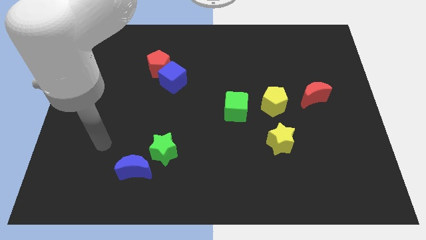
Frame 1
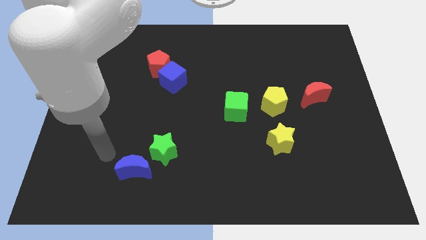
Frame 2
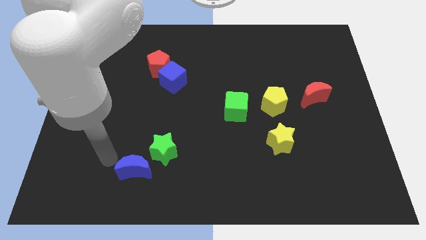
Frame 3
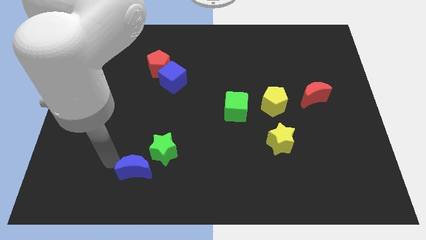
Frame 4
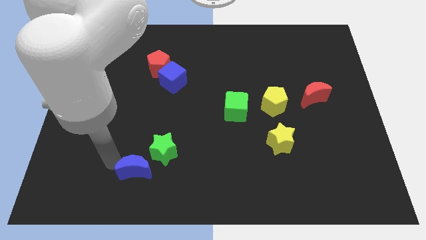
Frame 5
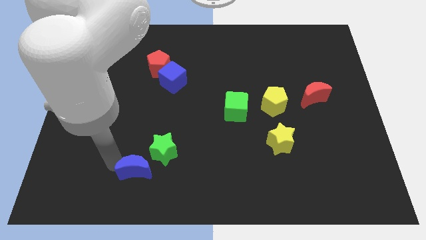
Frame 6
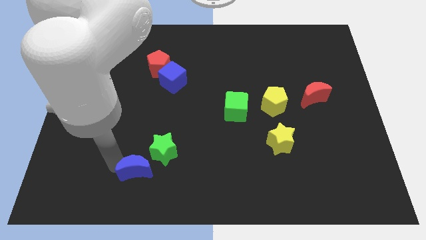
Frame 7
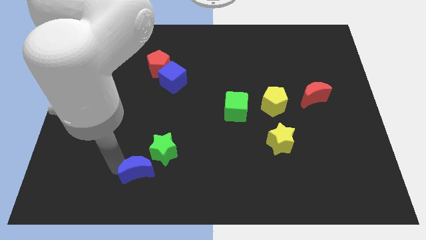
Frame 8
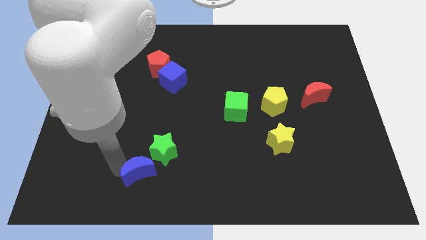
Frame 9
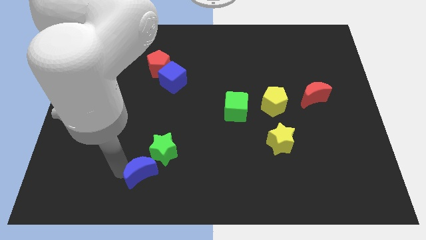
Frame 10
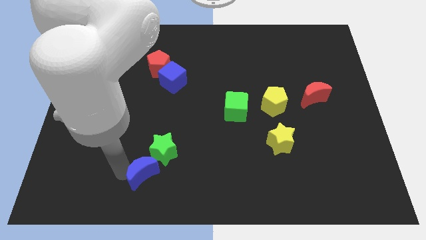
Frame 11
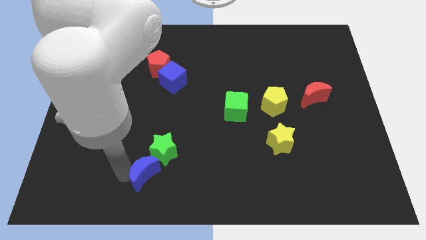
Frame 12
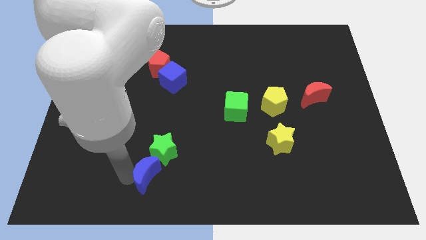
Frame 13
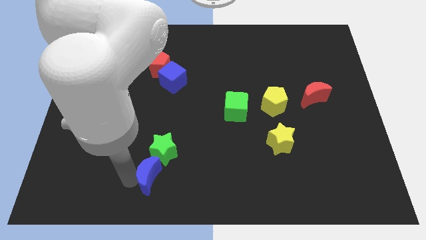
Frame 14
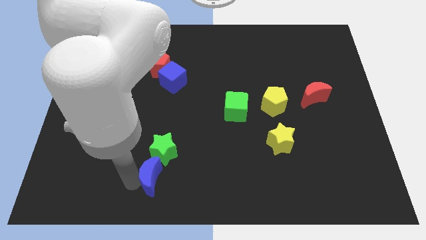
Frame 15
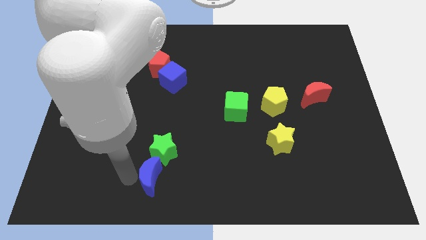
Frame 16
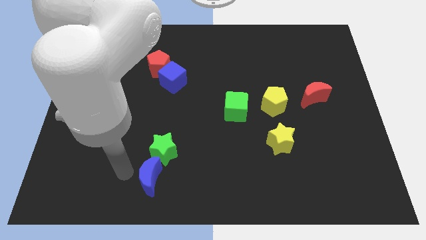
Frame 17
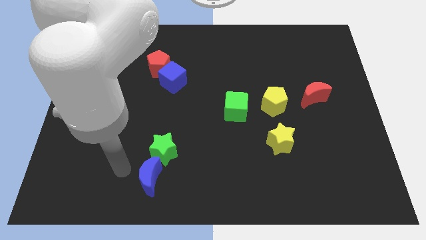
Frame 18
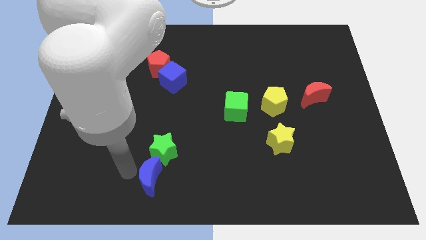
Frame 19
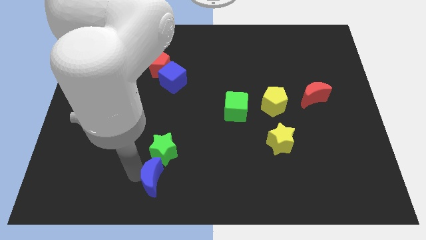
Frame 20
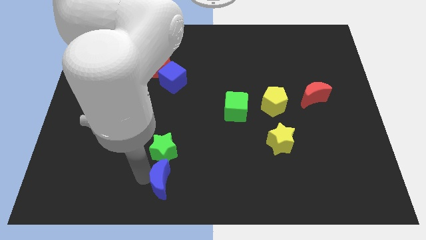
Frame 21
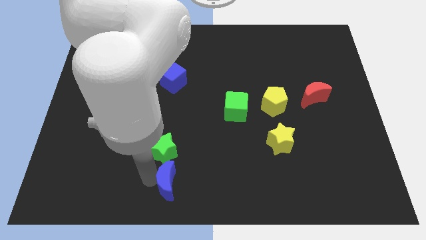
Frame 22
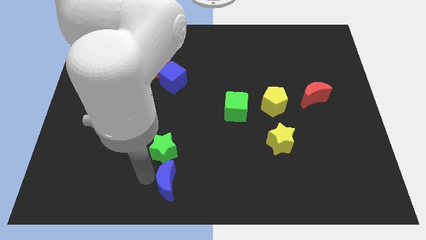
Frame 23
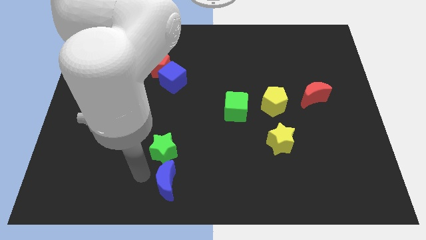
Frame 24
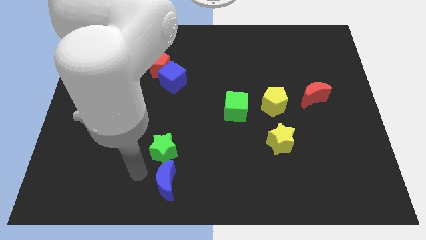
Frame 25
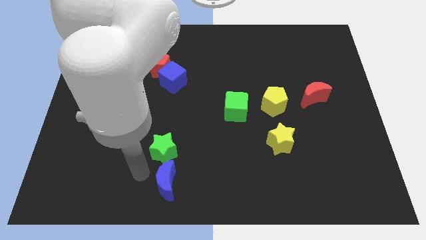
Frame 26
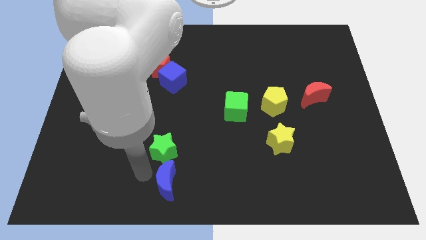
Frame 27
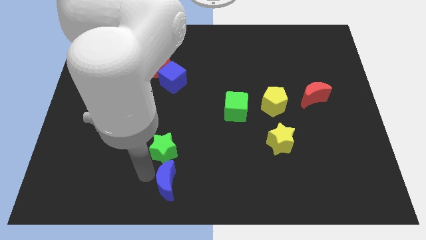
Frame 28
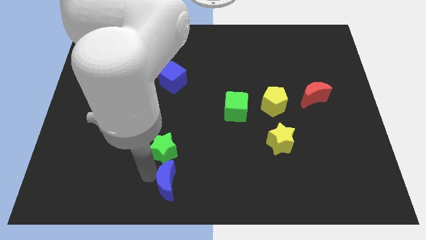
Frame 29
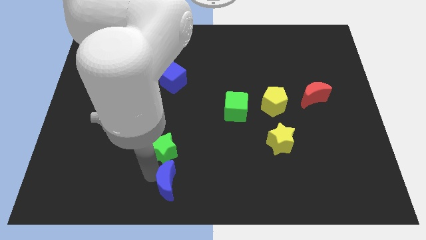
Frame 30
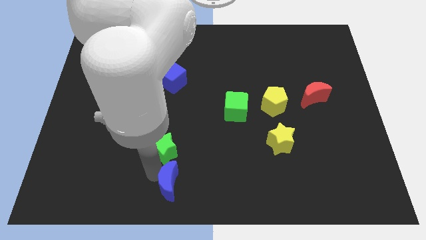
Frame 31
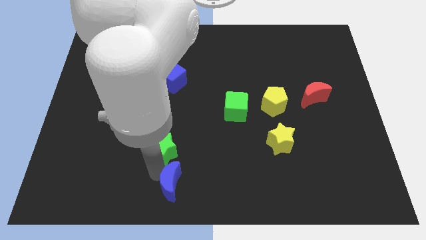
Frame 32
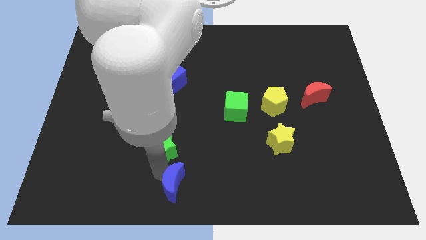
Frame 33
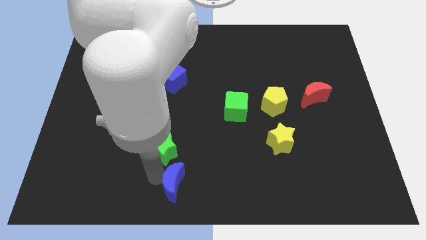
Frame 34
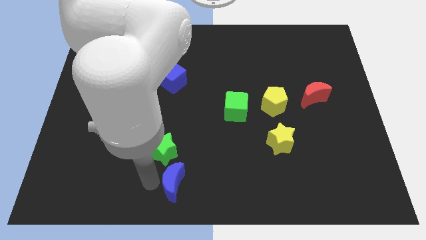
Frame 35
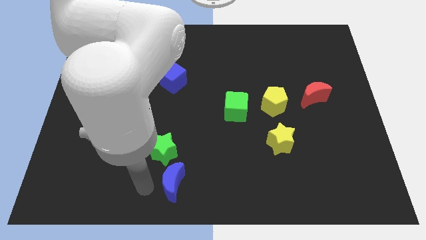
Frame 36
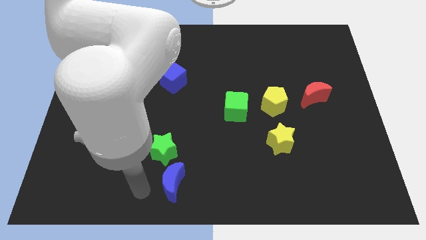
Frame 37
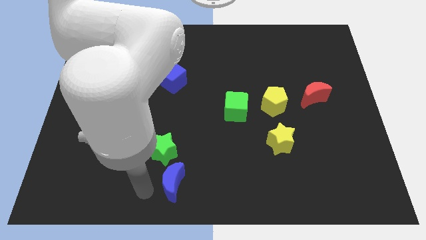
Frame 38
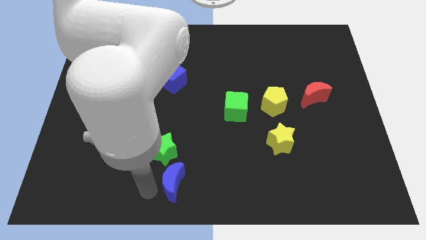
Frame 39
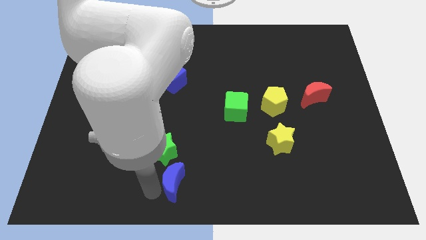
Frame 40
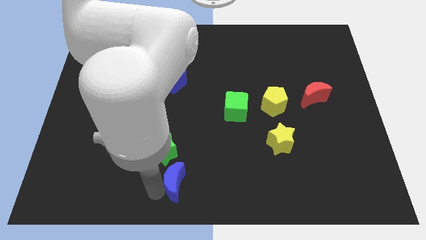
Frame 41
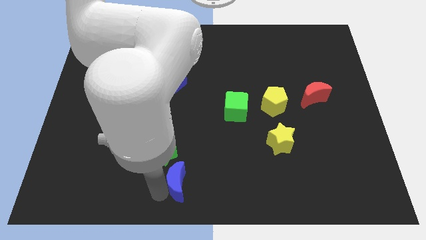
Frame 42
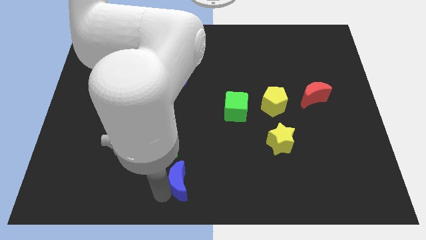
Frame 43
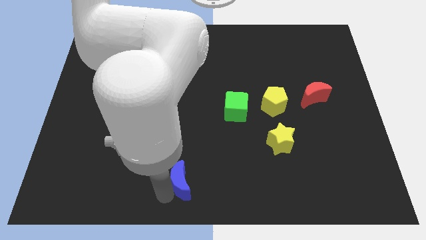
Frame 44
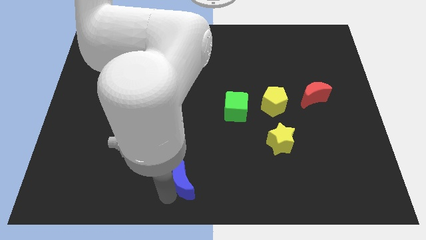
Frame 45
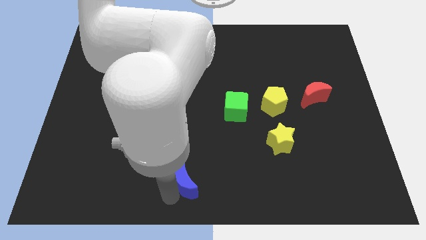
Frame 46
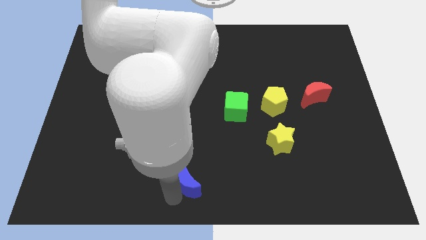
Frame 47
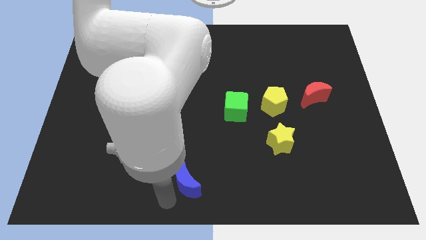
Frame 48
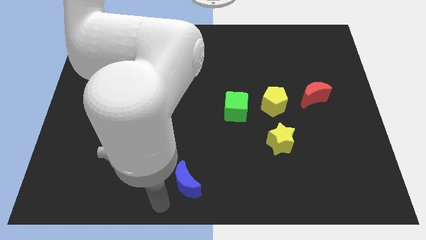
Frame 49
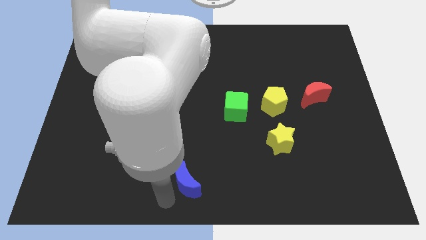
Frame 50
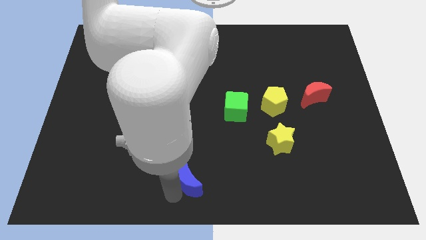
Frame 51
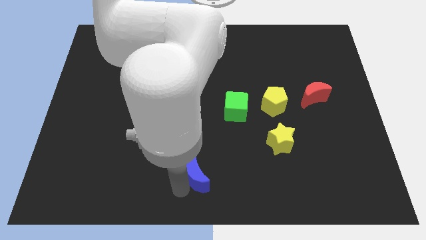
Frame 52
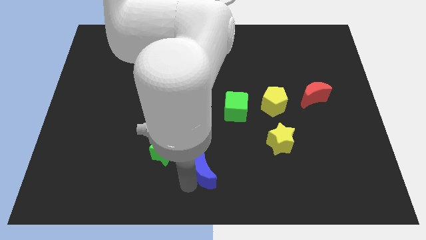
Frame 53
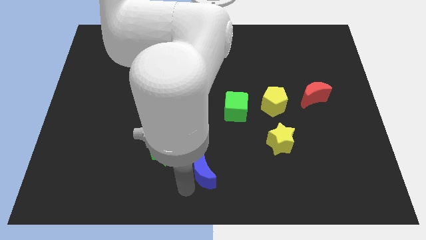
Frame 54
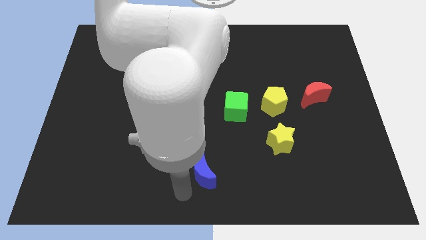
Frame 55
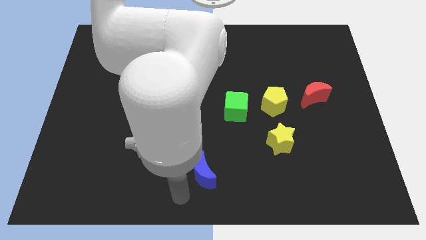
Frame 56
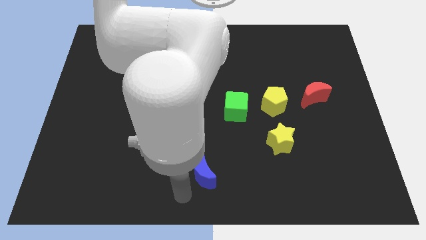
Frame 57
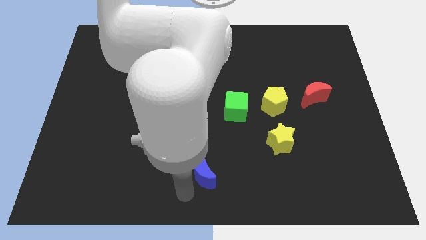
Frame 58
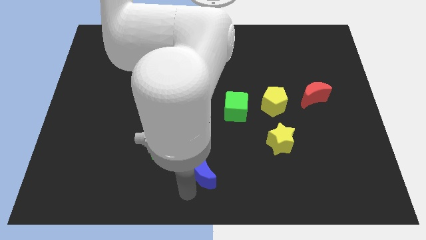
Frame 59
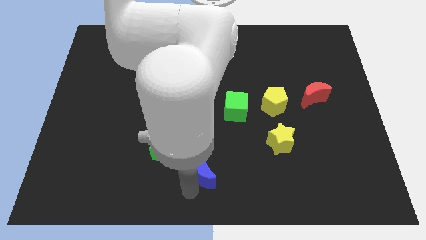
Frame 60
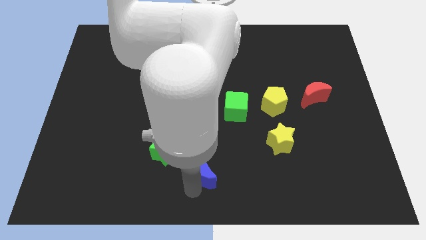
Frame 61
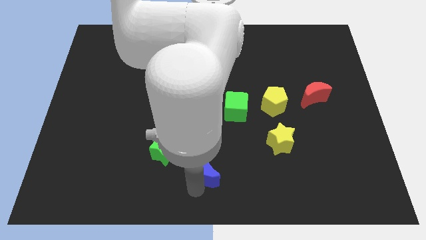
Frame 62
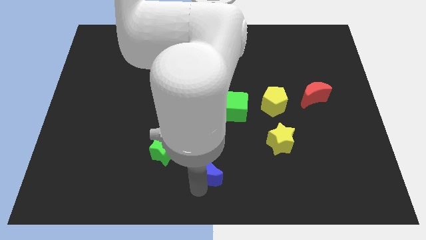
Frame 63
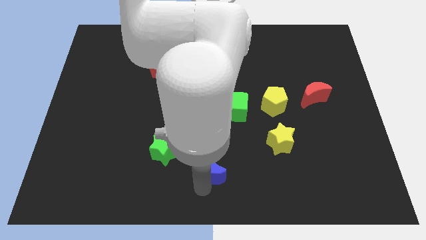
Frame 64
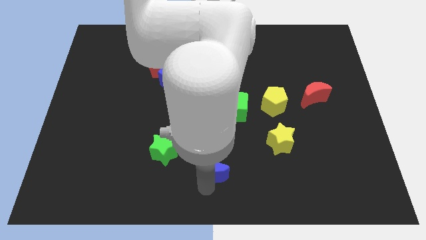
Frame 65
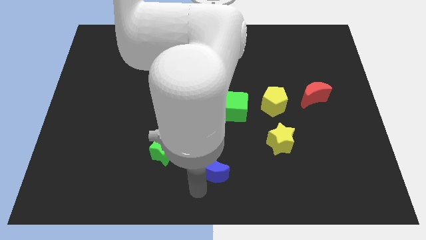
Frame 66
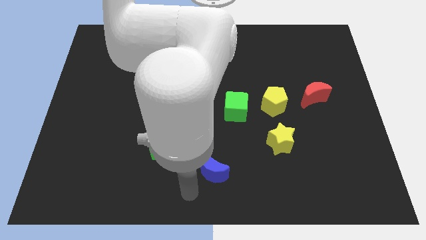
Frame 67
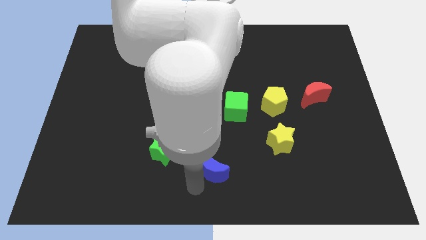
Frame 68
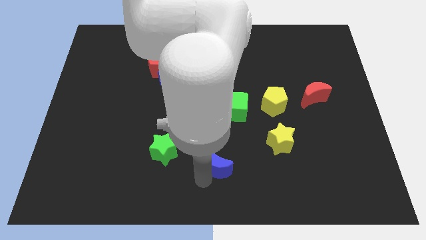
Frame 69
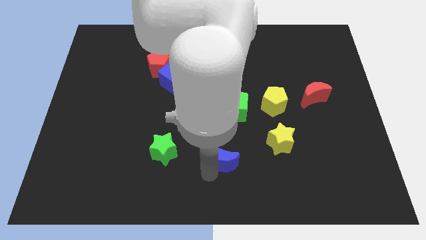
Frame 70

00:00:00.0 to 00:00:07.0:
move the blue moon to the bottom side of the green cube

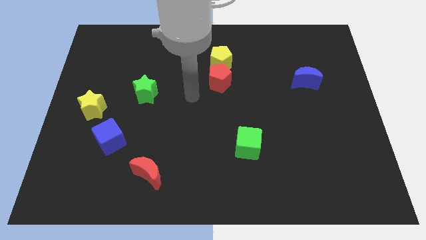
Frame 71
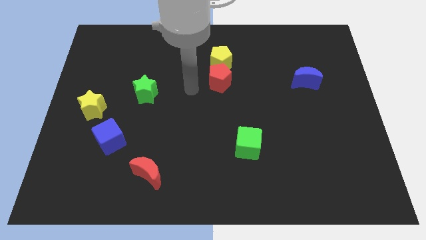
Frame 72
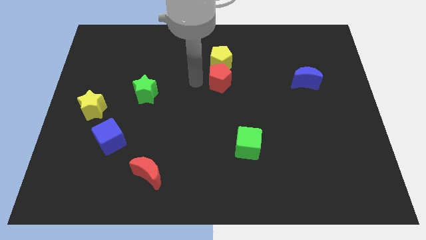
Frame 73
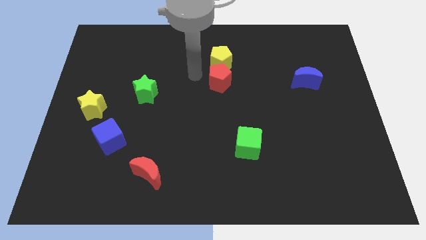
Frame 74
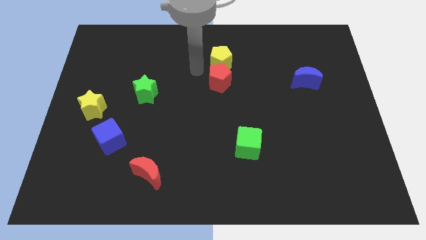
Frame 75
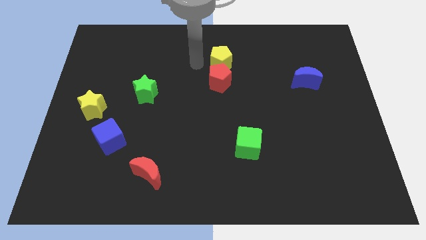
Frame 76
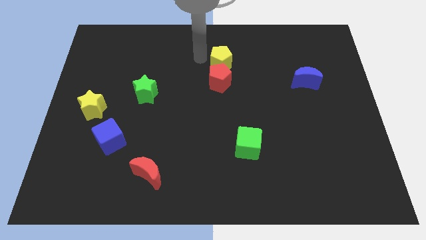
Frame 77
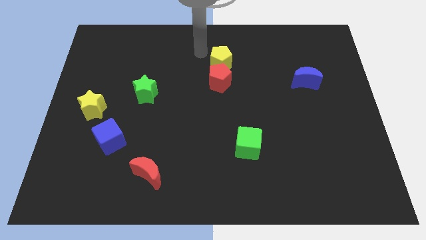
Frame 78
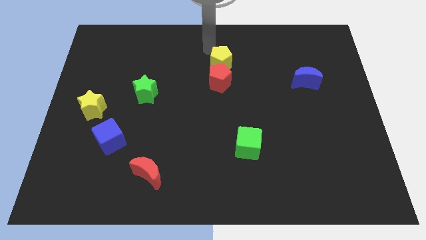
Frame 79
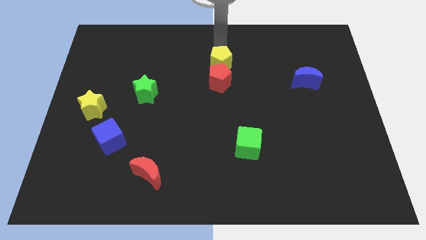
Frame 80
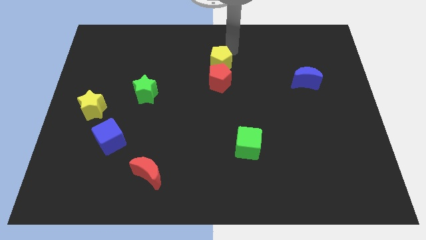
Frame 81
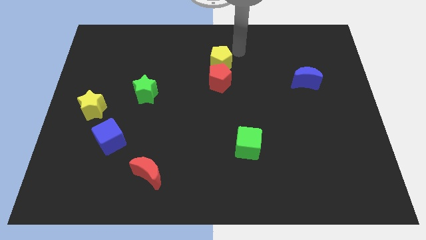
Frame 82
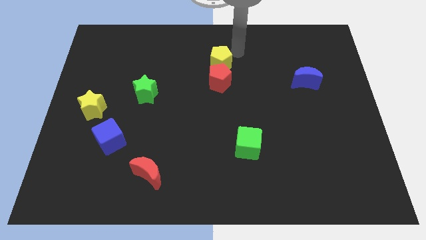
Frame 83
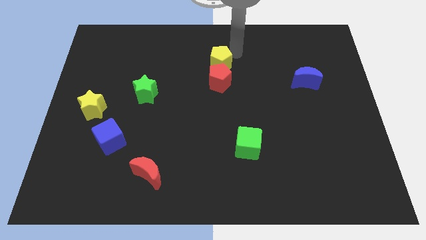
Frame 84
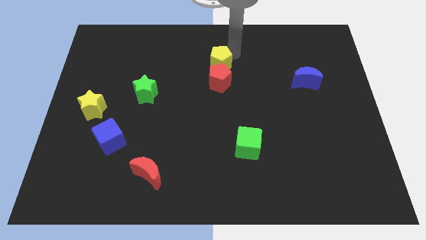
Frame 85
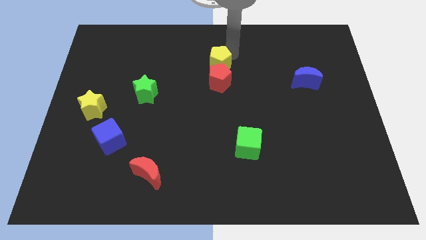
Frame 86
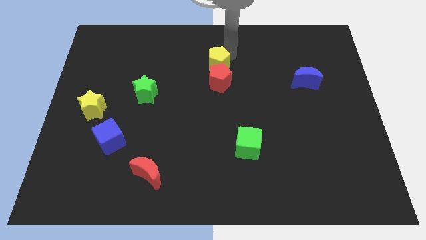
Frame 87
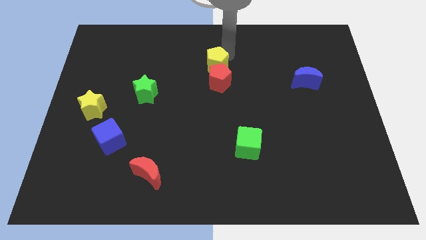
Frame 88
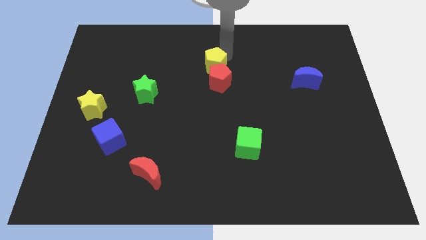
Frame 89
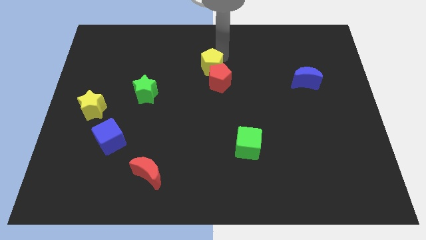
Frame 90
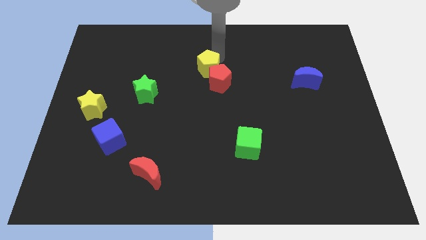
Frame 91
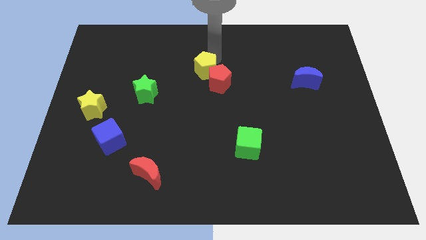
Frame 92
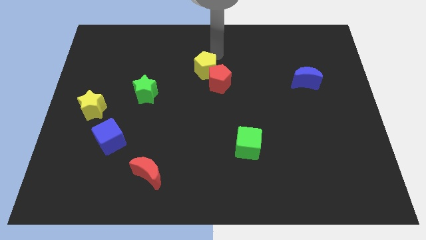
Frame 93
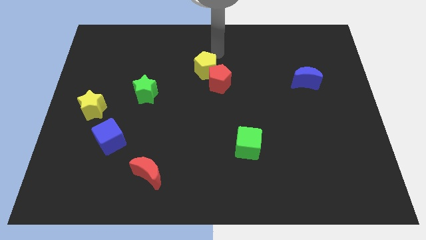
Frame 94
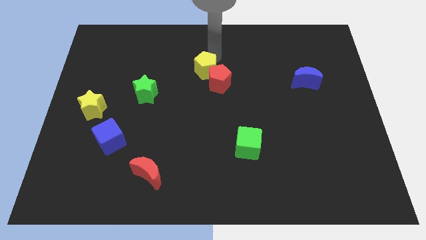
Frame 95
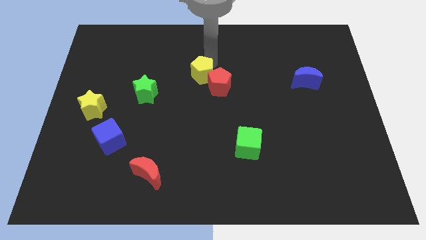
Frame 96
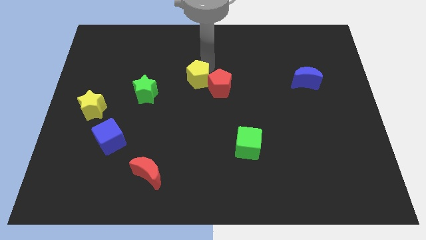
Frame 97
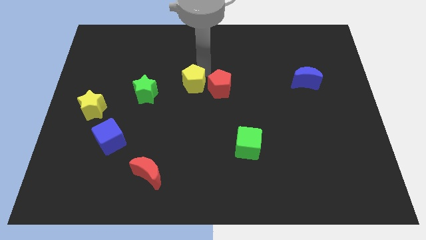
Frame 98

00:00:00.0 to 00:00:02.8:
move the yellow pentagon right of the green star
